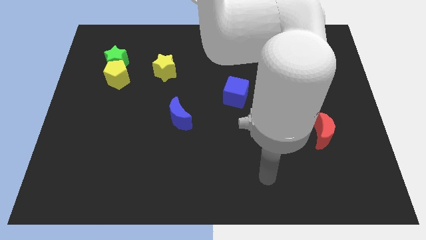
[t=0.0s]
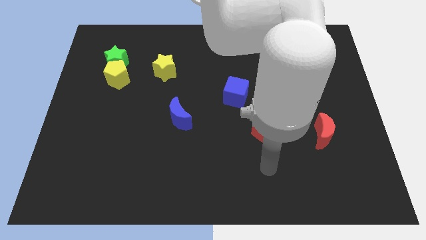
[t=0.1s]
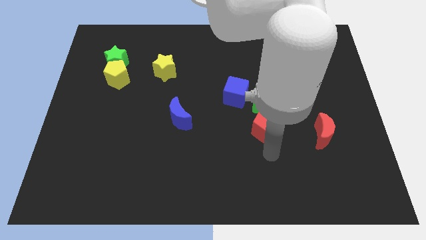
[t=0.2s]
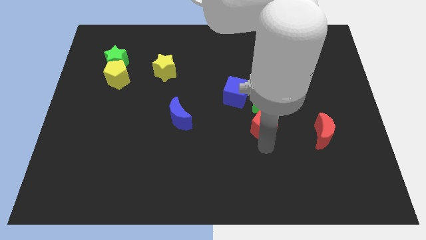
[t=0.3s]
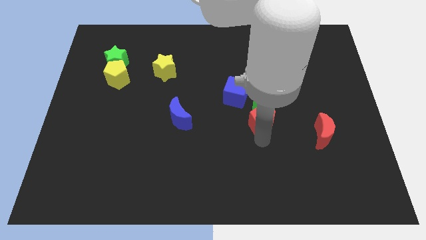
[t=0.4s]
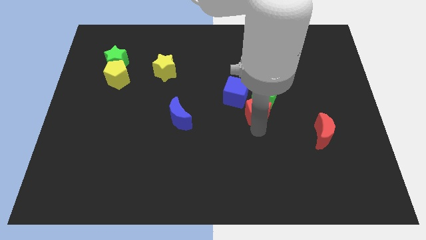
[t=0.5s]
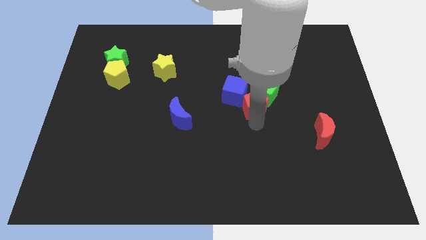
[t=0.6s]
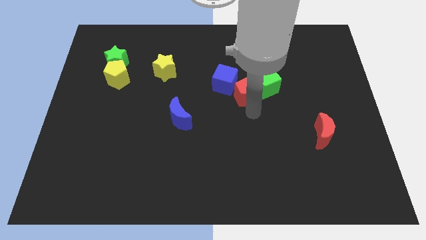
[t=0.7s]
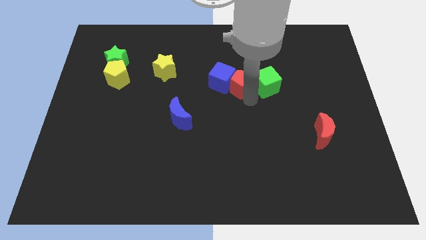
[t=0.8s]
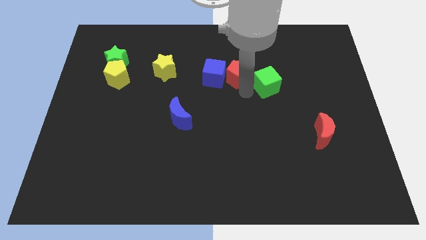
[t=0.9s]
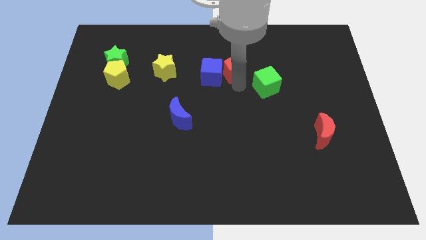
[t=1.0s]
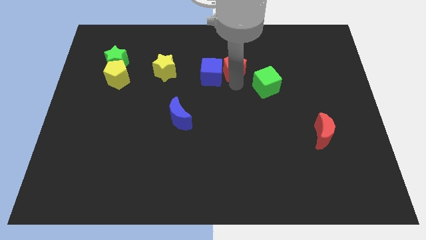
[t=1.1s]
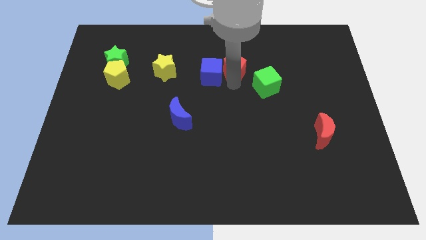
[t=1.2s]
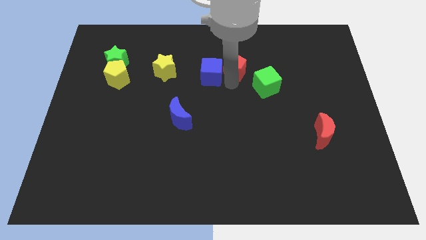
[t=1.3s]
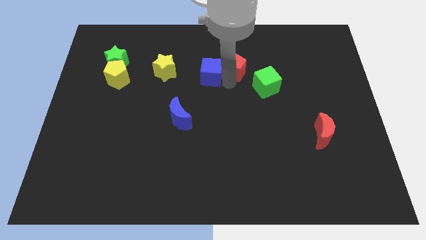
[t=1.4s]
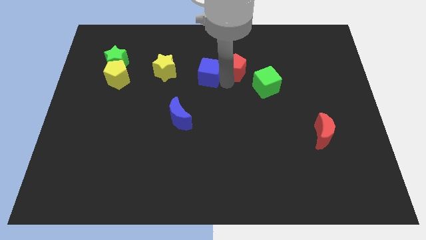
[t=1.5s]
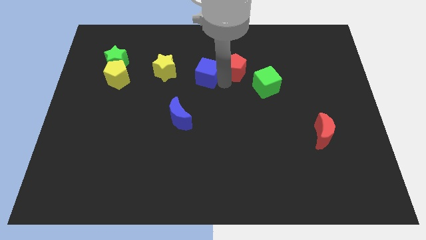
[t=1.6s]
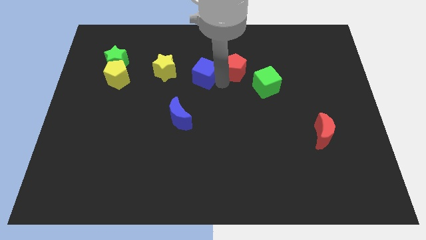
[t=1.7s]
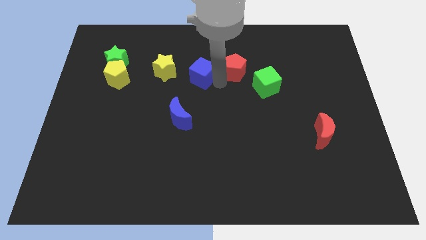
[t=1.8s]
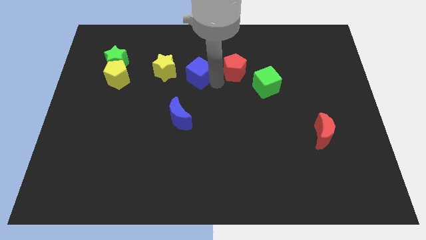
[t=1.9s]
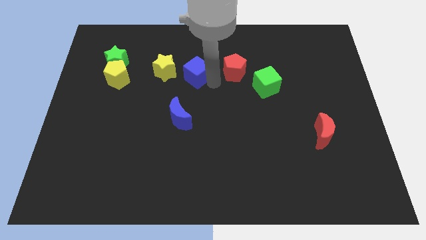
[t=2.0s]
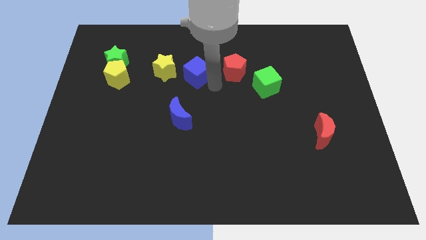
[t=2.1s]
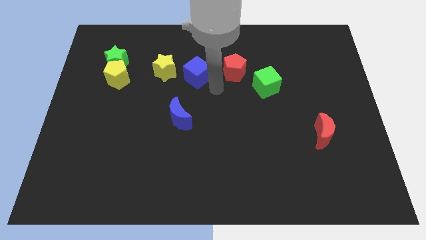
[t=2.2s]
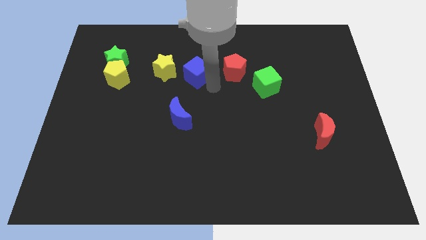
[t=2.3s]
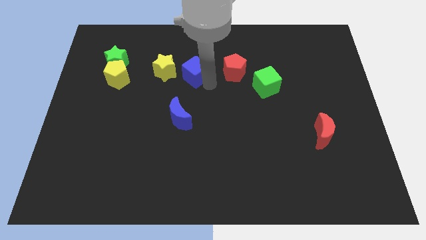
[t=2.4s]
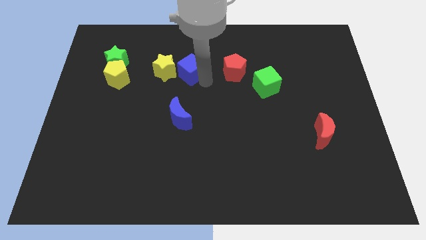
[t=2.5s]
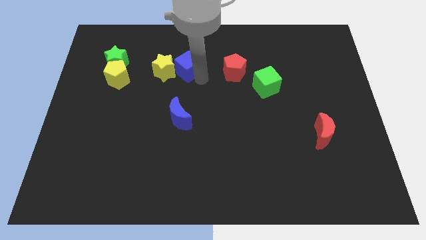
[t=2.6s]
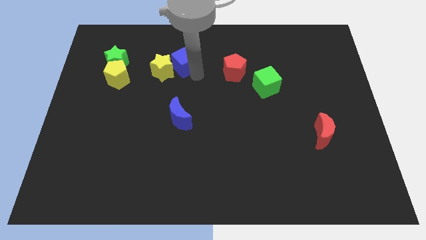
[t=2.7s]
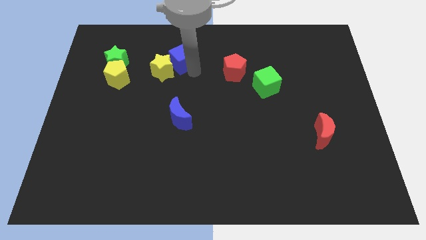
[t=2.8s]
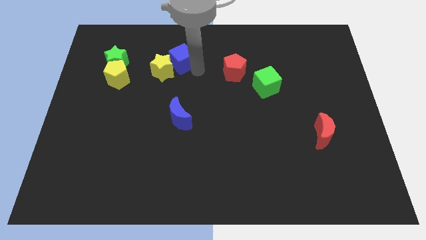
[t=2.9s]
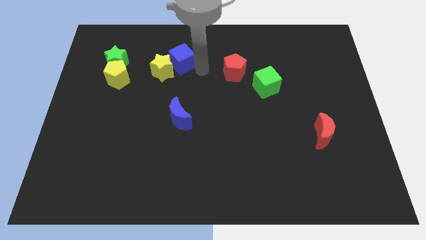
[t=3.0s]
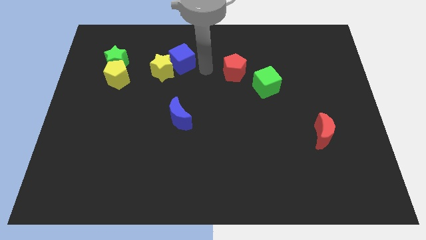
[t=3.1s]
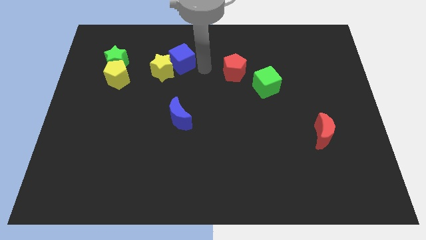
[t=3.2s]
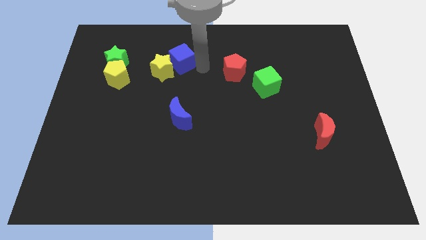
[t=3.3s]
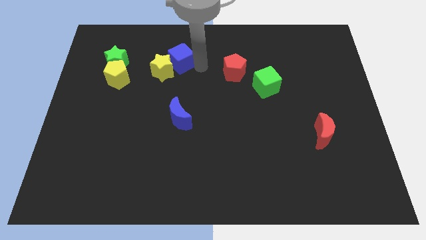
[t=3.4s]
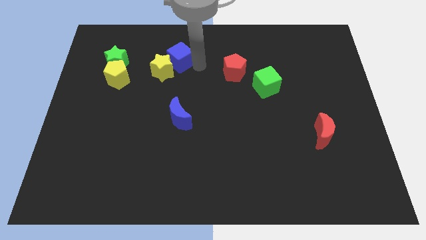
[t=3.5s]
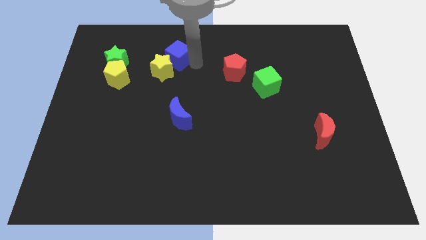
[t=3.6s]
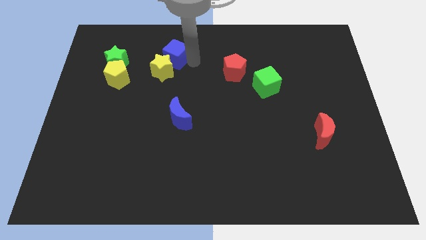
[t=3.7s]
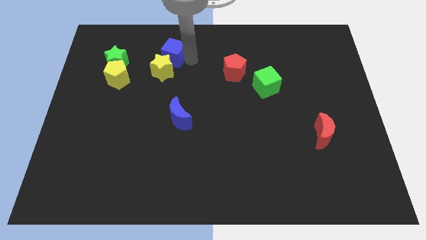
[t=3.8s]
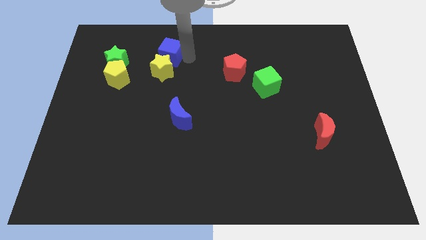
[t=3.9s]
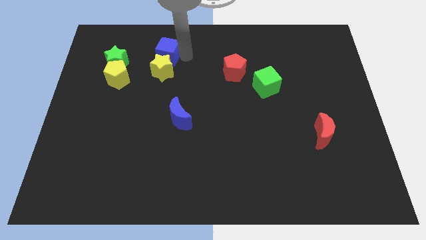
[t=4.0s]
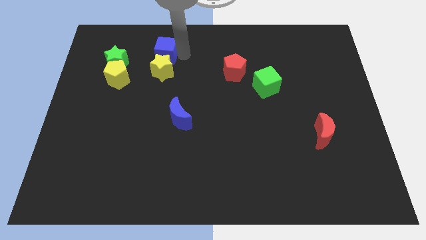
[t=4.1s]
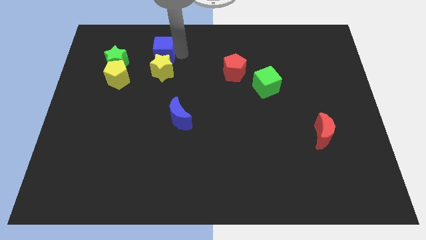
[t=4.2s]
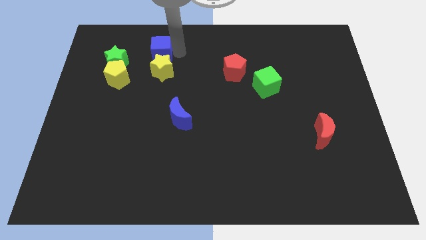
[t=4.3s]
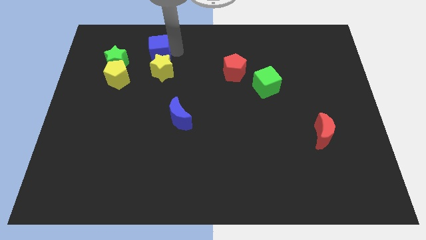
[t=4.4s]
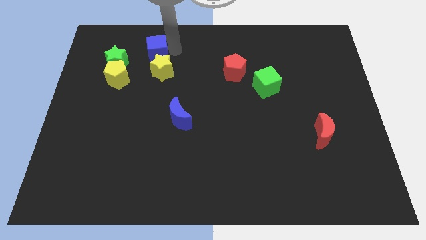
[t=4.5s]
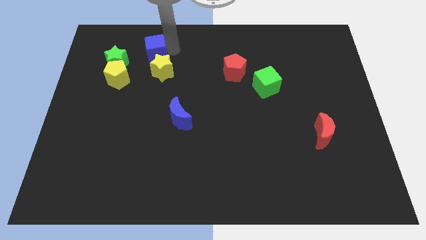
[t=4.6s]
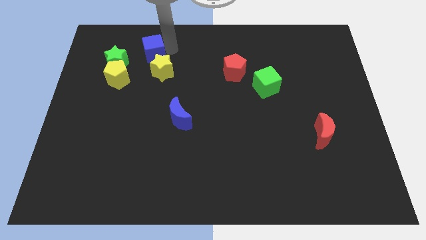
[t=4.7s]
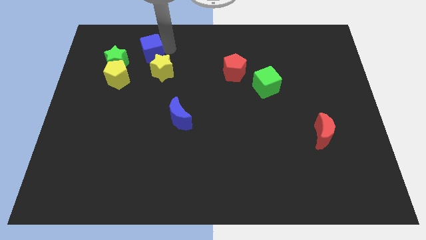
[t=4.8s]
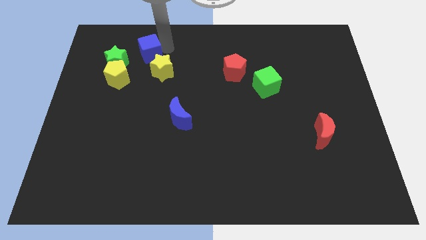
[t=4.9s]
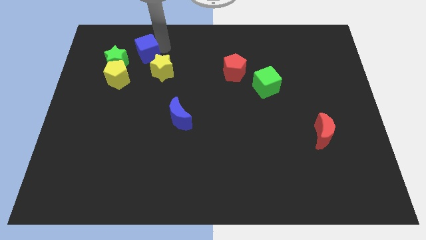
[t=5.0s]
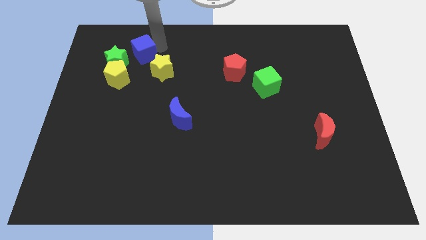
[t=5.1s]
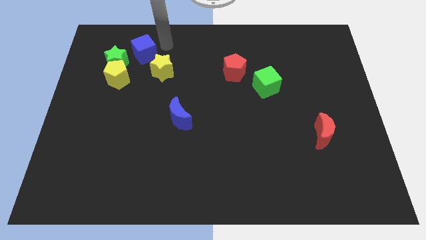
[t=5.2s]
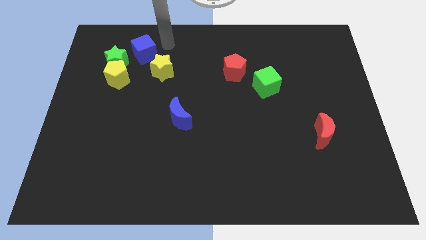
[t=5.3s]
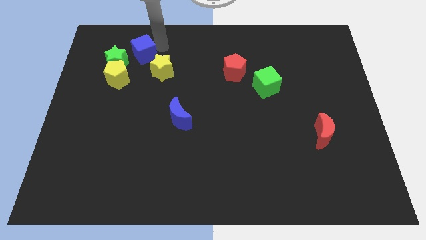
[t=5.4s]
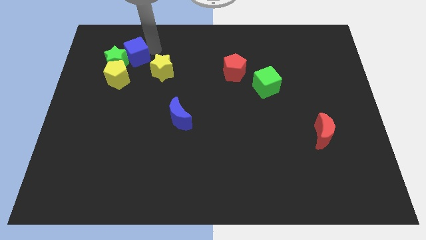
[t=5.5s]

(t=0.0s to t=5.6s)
put the blue cube to the green star

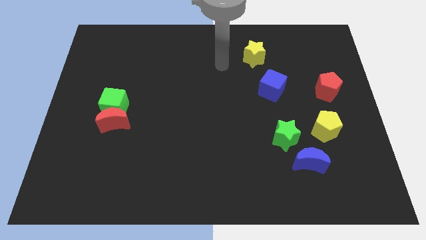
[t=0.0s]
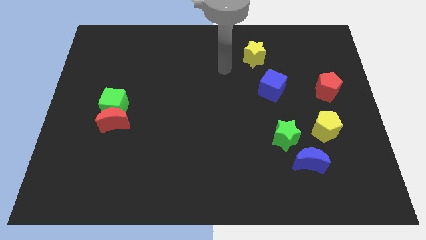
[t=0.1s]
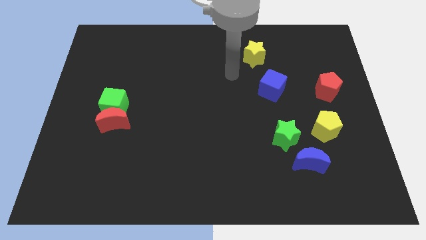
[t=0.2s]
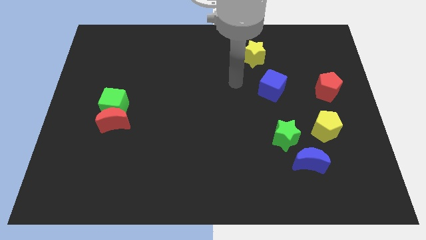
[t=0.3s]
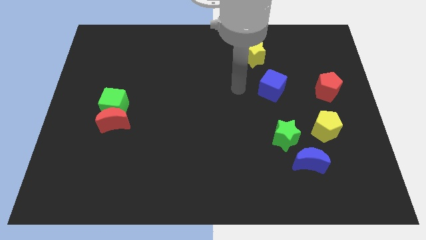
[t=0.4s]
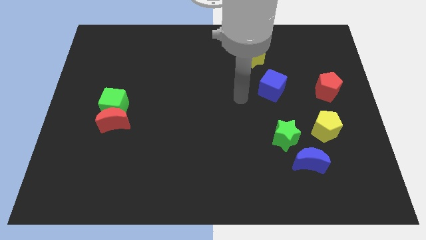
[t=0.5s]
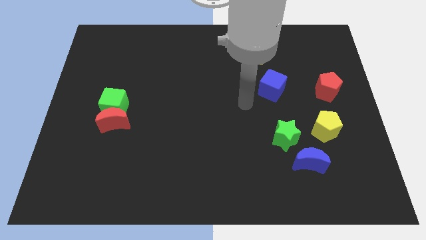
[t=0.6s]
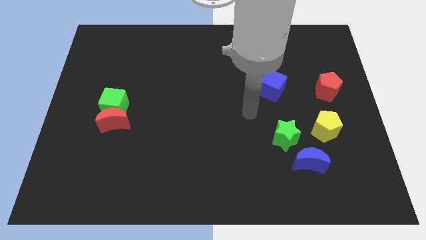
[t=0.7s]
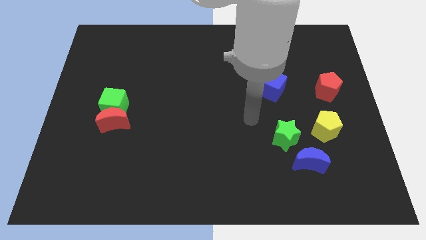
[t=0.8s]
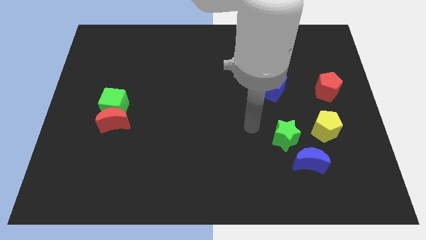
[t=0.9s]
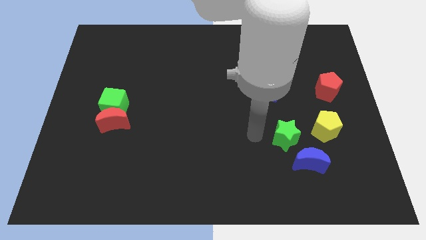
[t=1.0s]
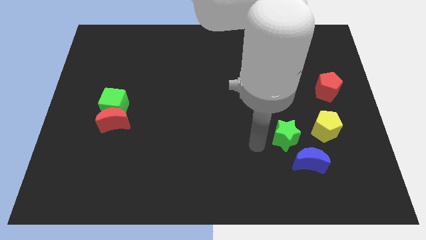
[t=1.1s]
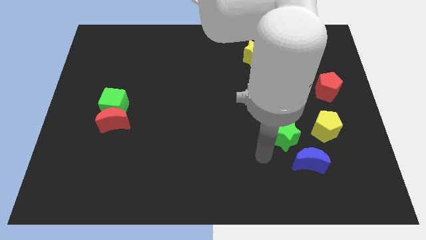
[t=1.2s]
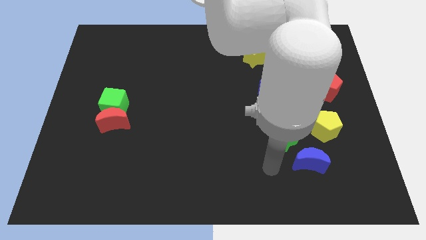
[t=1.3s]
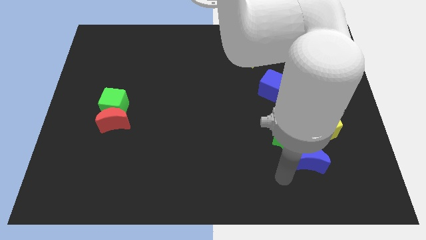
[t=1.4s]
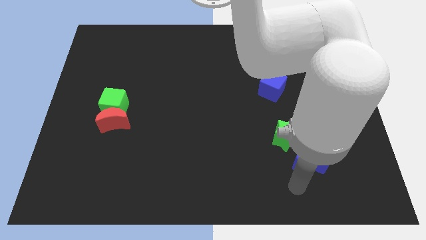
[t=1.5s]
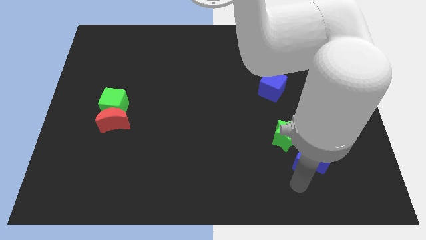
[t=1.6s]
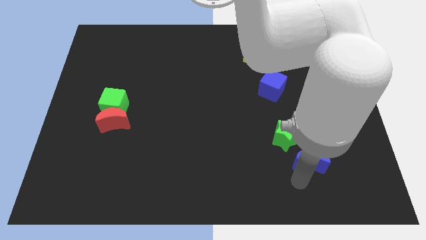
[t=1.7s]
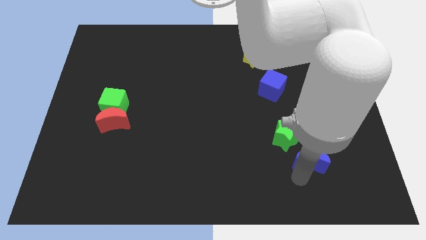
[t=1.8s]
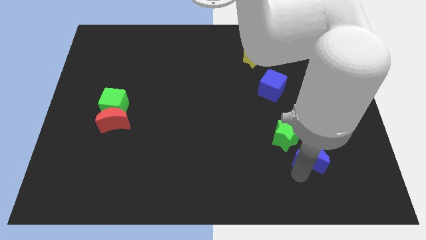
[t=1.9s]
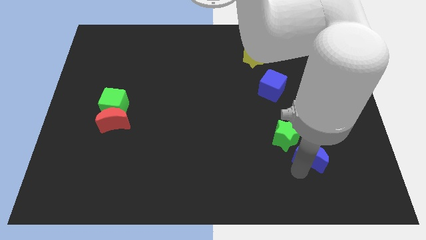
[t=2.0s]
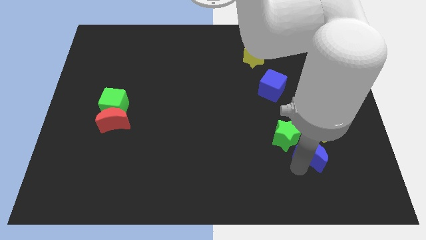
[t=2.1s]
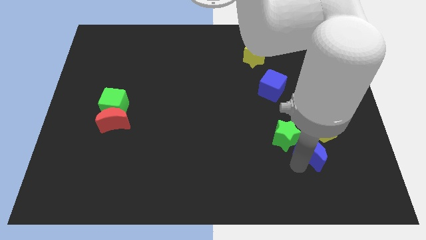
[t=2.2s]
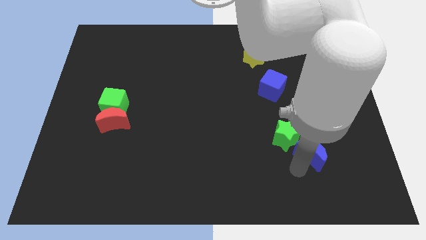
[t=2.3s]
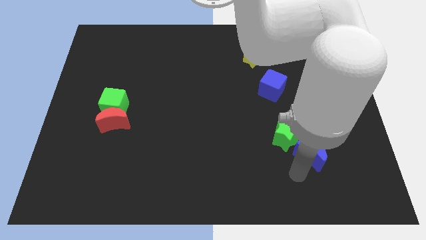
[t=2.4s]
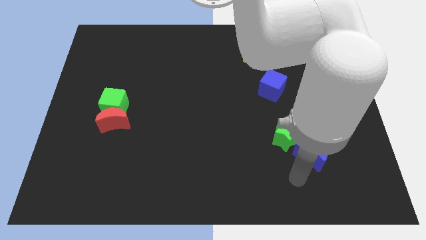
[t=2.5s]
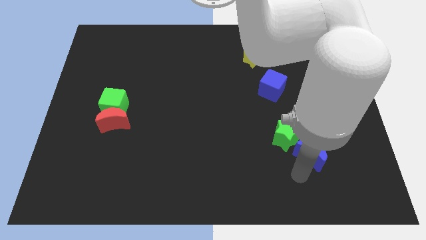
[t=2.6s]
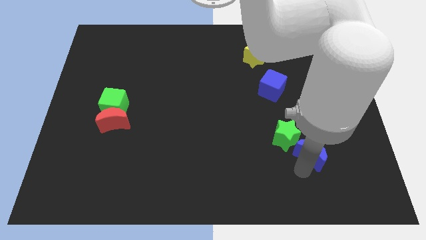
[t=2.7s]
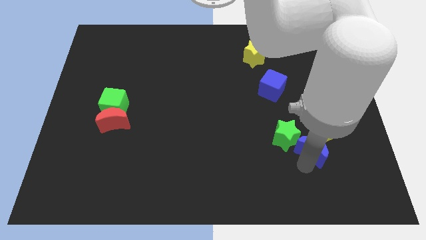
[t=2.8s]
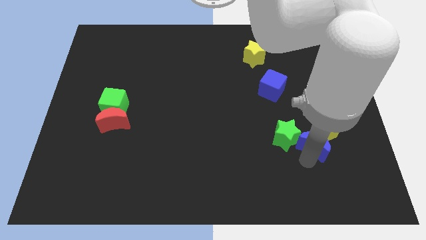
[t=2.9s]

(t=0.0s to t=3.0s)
slide the blue moon towards the yellow pentagon
